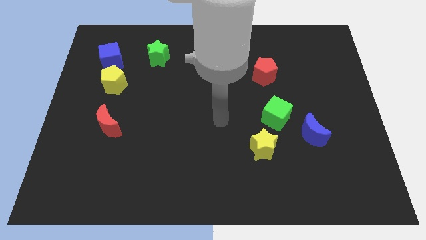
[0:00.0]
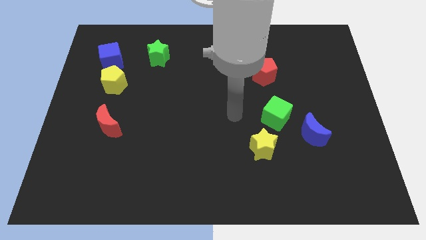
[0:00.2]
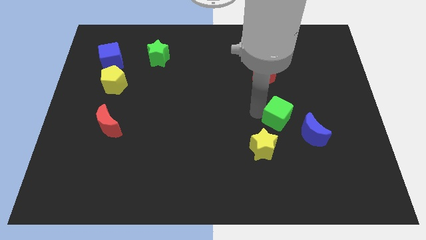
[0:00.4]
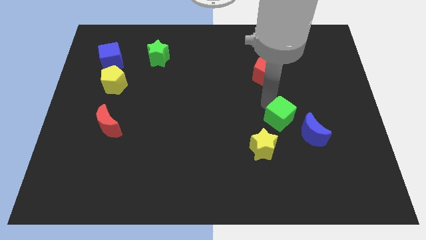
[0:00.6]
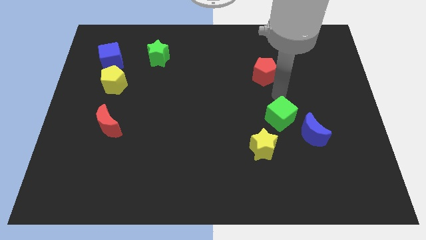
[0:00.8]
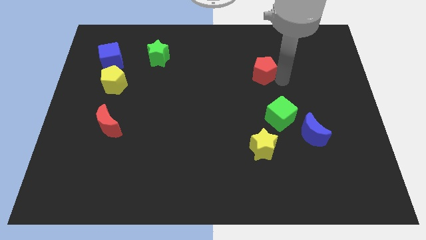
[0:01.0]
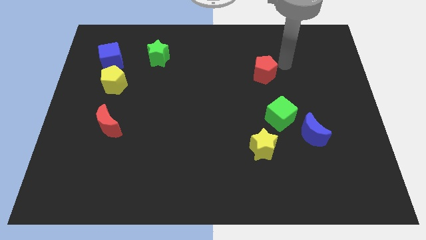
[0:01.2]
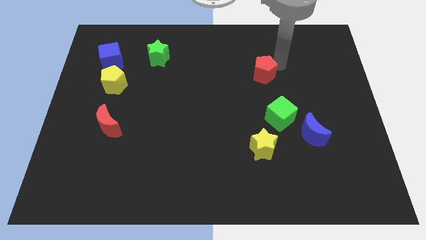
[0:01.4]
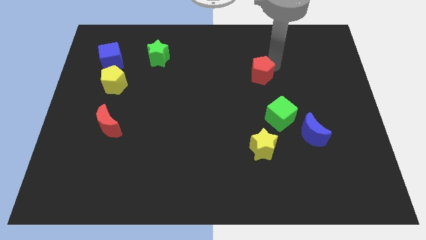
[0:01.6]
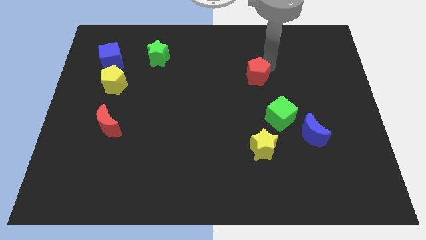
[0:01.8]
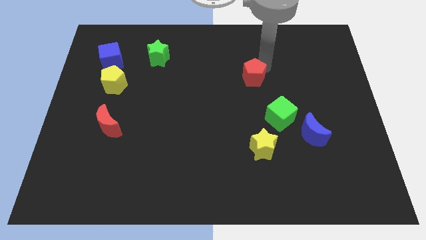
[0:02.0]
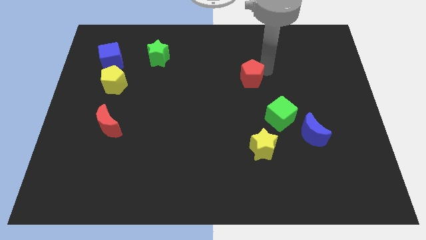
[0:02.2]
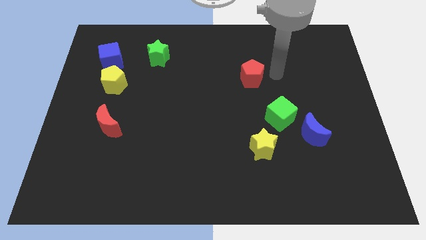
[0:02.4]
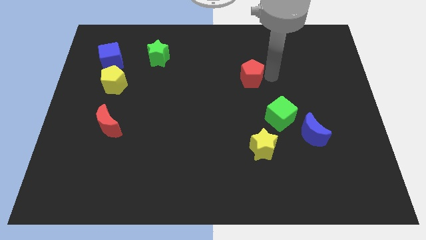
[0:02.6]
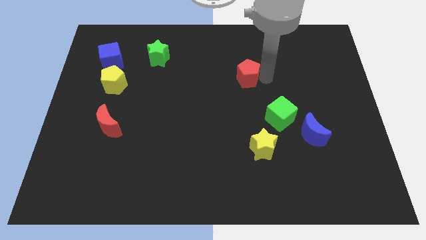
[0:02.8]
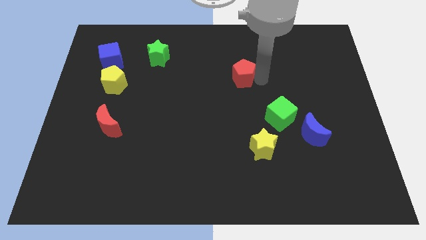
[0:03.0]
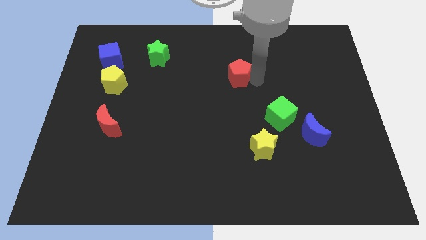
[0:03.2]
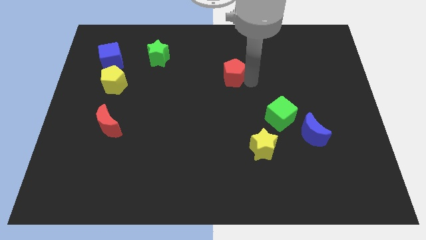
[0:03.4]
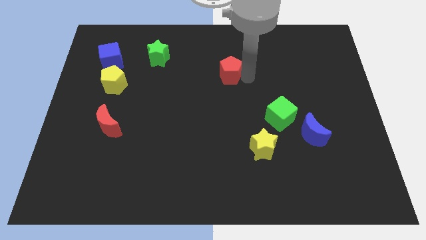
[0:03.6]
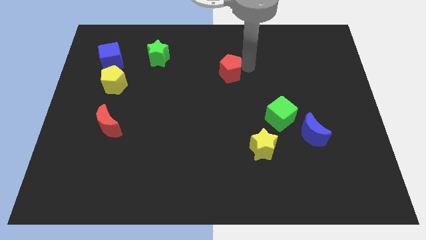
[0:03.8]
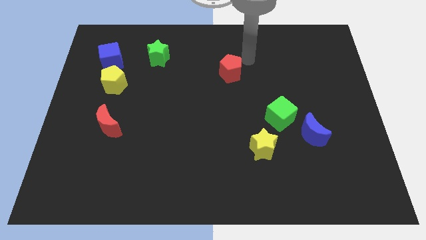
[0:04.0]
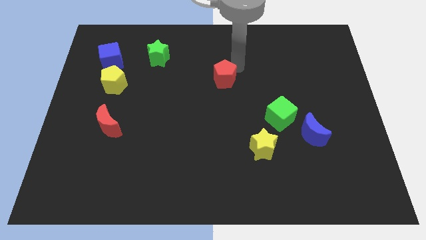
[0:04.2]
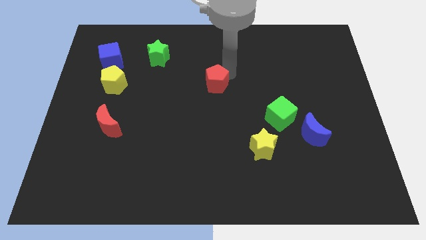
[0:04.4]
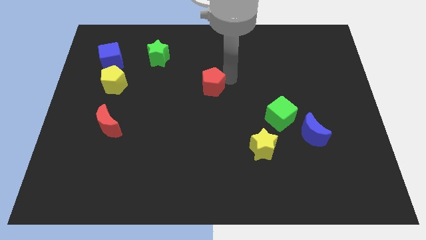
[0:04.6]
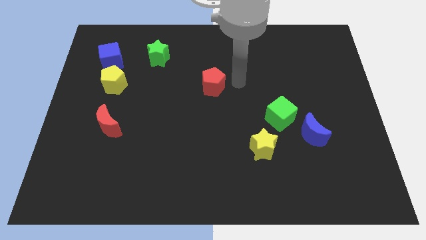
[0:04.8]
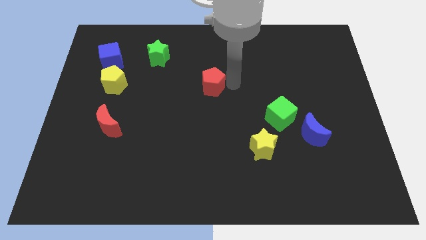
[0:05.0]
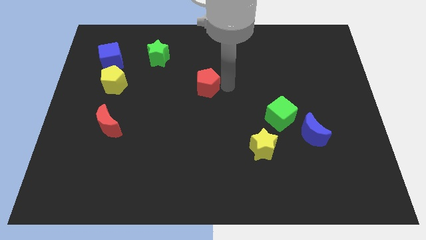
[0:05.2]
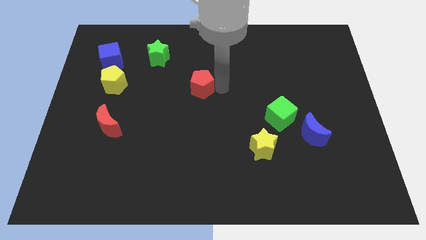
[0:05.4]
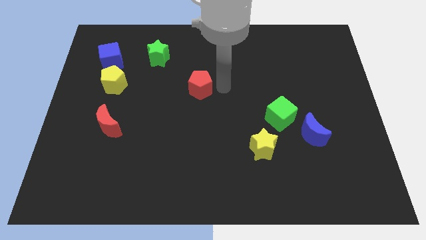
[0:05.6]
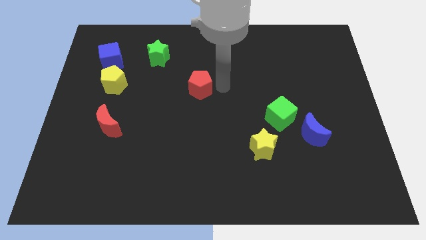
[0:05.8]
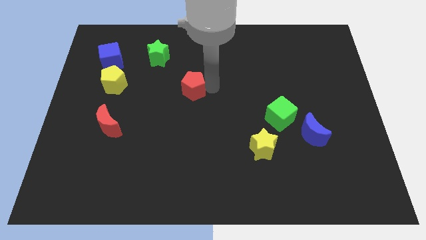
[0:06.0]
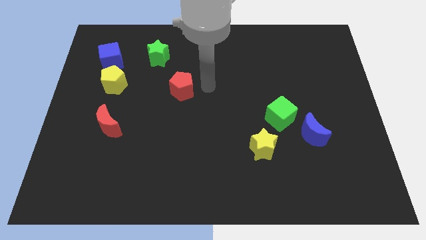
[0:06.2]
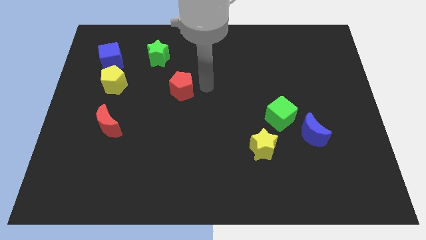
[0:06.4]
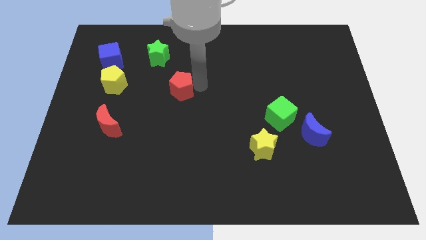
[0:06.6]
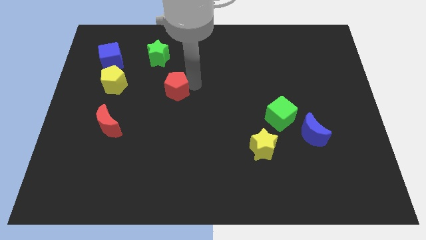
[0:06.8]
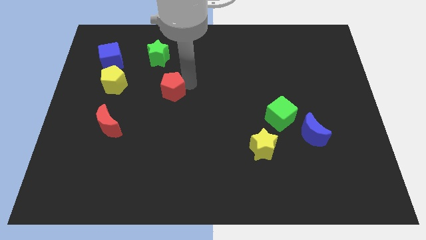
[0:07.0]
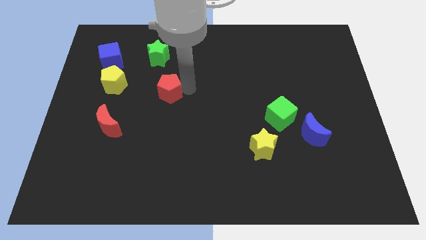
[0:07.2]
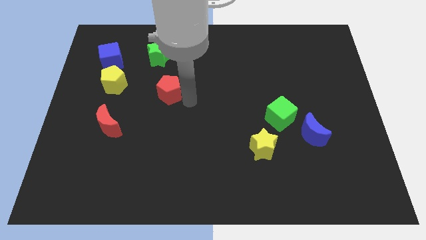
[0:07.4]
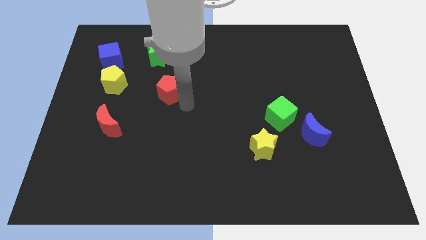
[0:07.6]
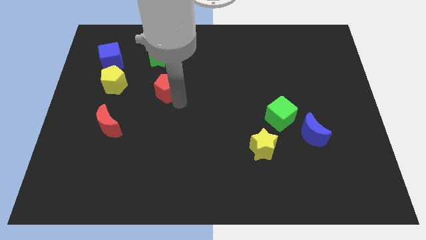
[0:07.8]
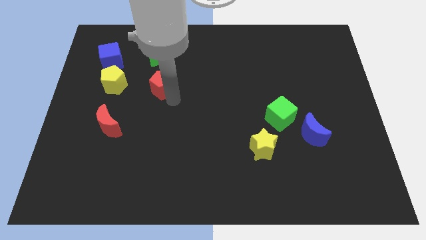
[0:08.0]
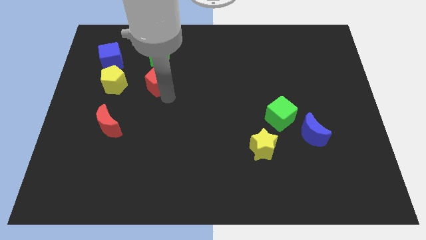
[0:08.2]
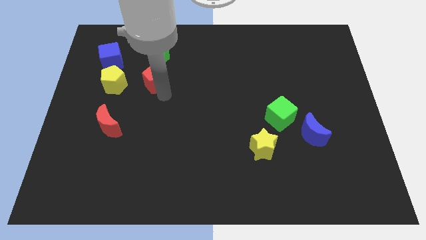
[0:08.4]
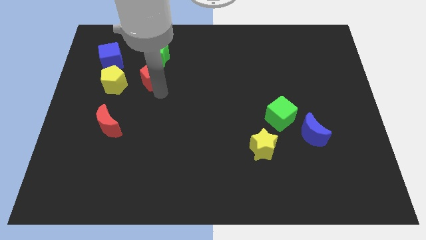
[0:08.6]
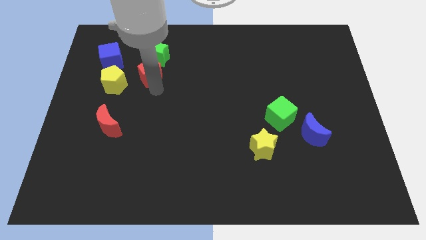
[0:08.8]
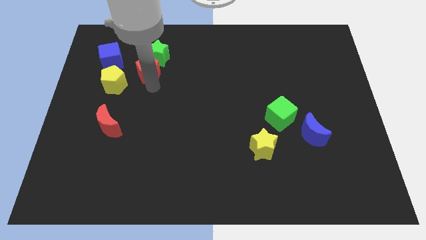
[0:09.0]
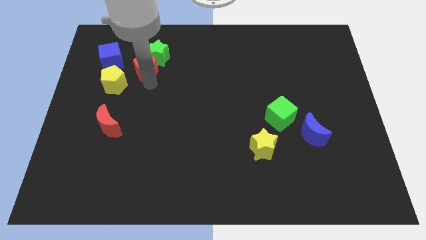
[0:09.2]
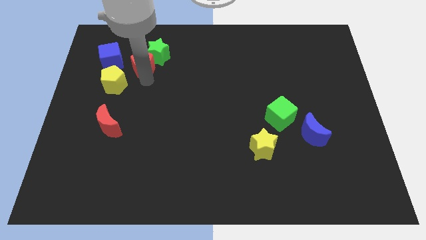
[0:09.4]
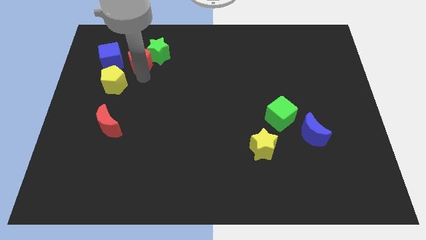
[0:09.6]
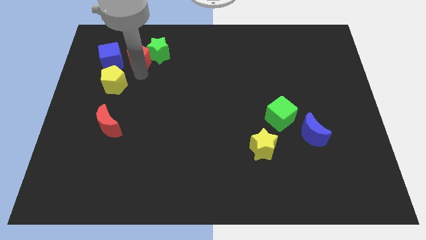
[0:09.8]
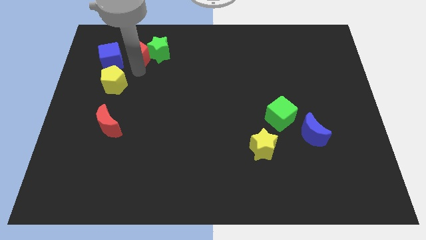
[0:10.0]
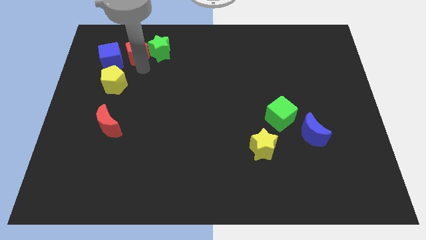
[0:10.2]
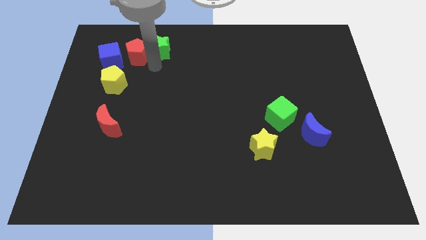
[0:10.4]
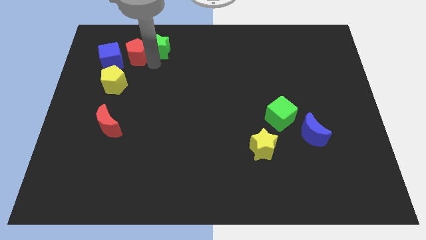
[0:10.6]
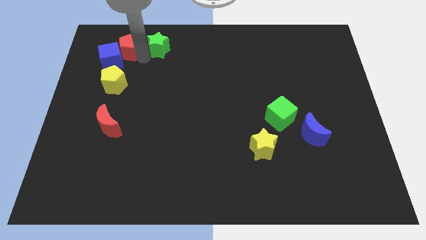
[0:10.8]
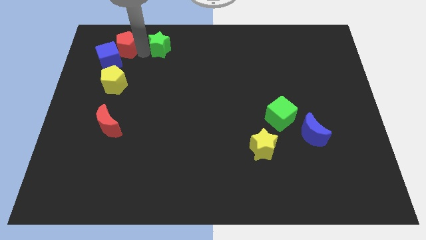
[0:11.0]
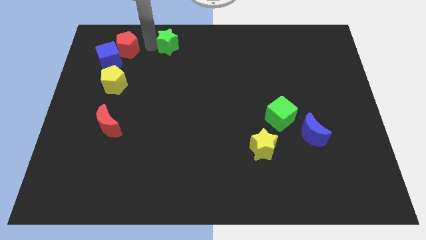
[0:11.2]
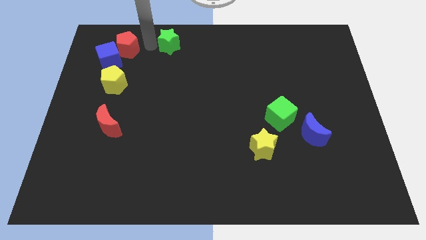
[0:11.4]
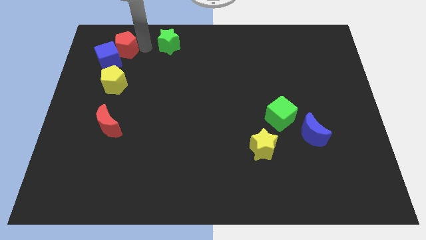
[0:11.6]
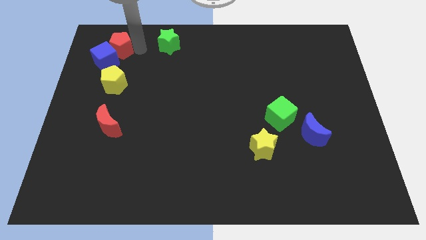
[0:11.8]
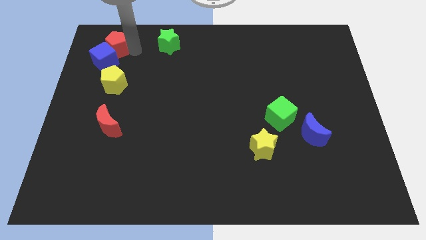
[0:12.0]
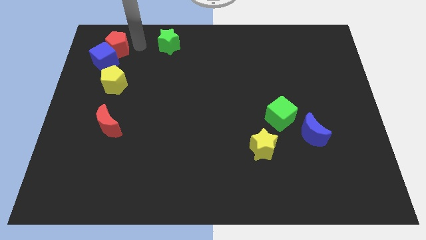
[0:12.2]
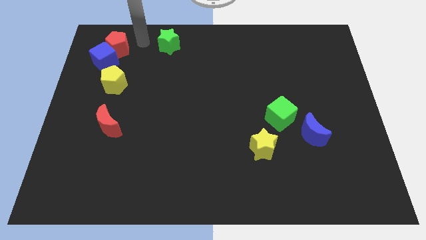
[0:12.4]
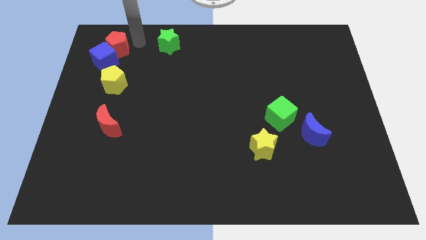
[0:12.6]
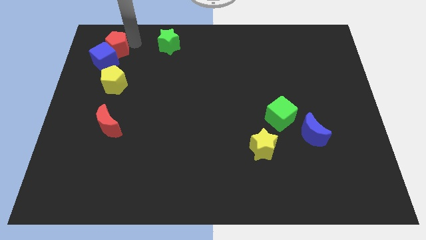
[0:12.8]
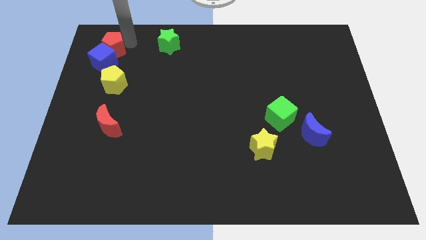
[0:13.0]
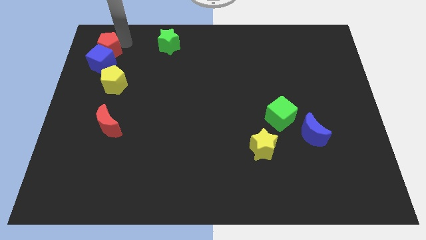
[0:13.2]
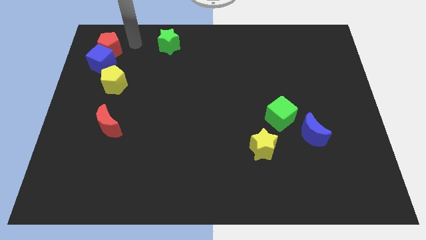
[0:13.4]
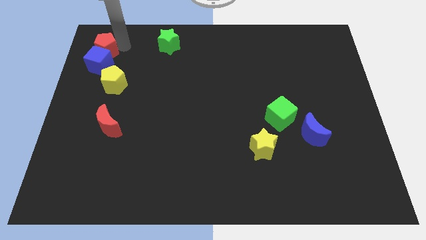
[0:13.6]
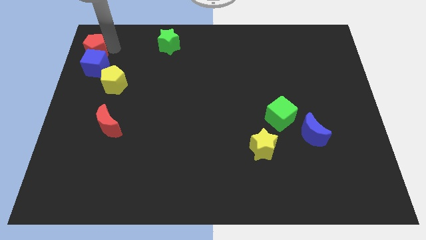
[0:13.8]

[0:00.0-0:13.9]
push the red pentagon to the upper left corner
